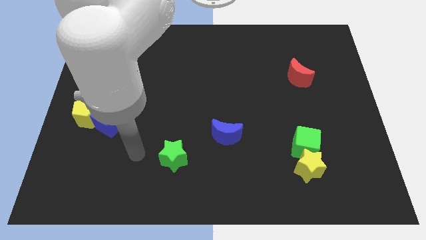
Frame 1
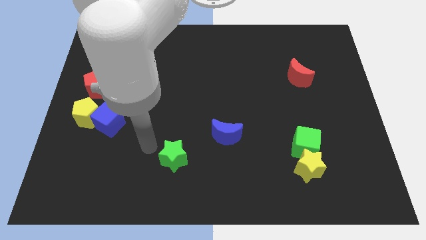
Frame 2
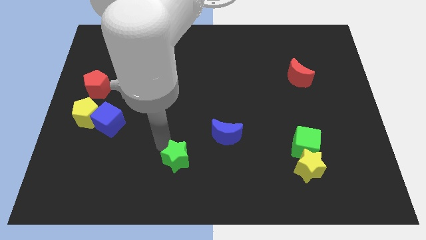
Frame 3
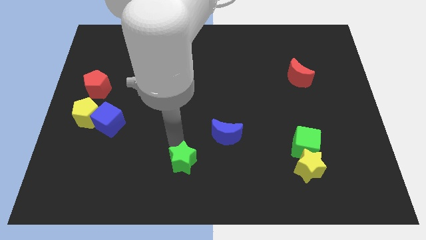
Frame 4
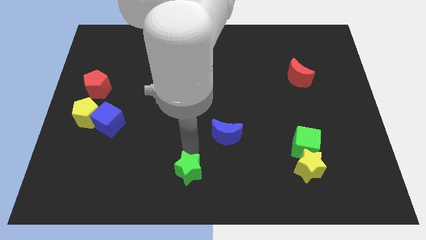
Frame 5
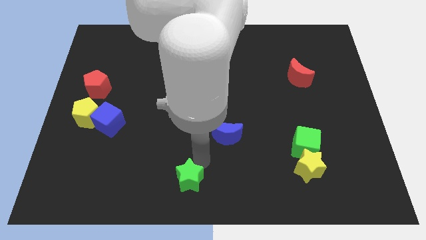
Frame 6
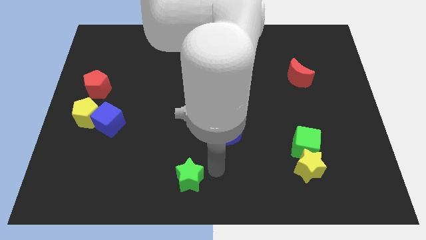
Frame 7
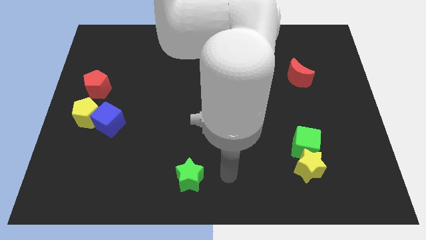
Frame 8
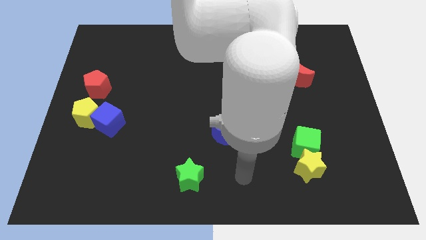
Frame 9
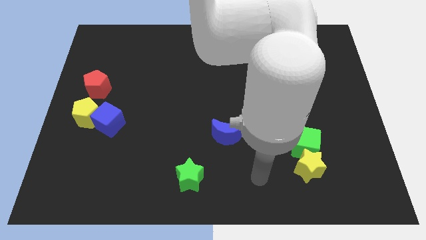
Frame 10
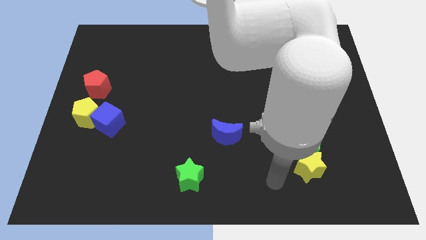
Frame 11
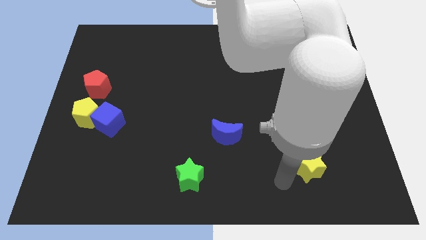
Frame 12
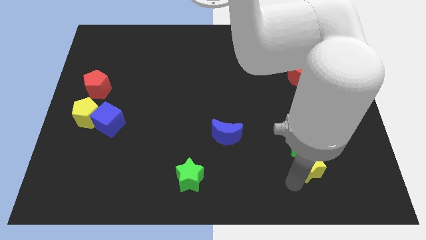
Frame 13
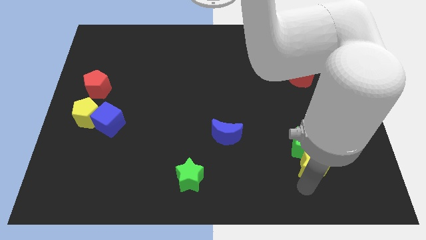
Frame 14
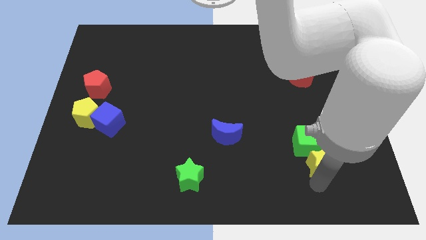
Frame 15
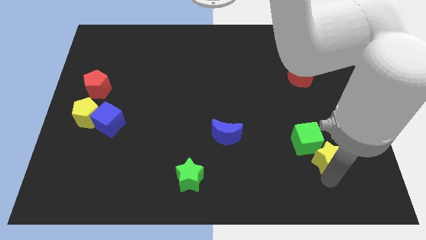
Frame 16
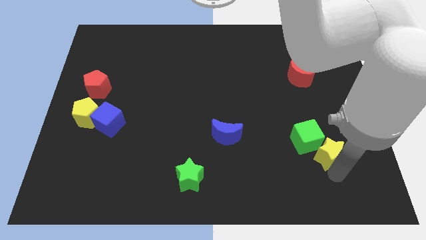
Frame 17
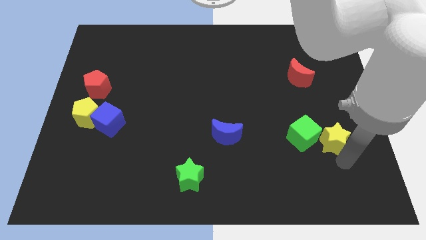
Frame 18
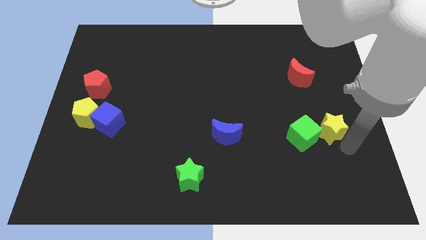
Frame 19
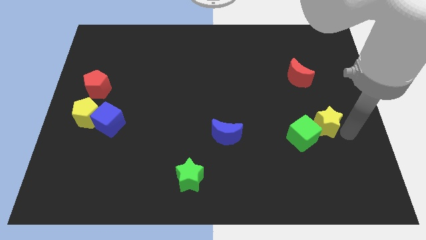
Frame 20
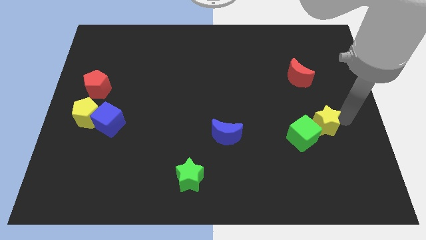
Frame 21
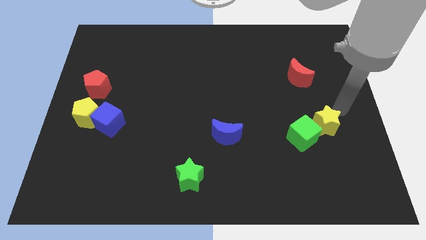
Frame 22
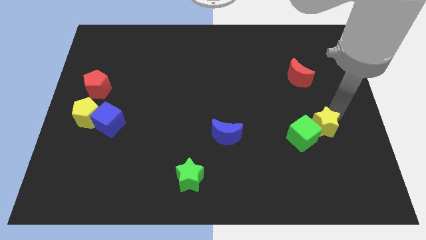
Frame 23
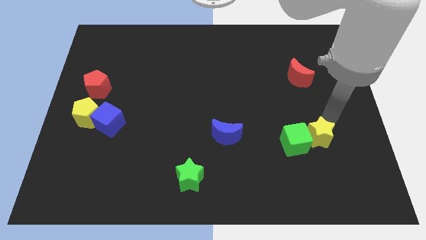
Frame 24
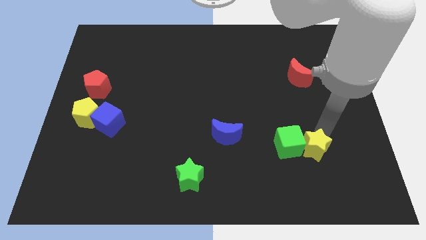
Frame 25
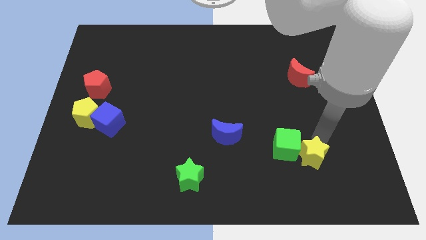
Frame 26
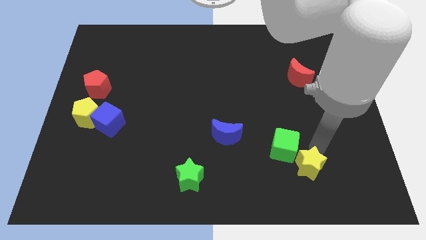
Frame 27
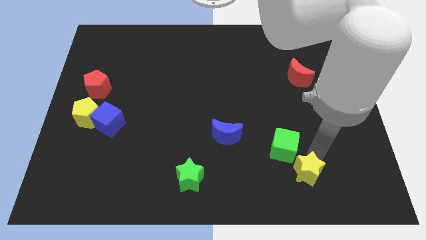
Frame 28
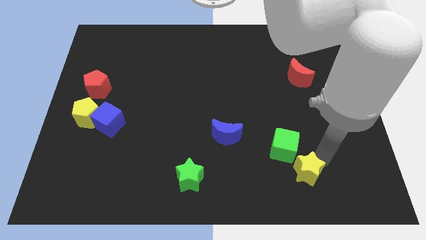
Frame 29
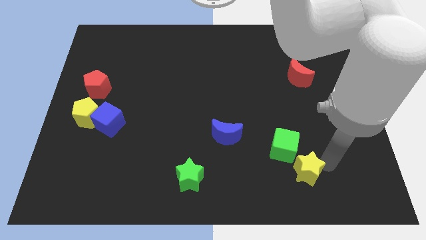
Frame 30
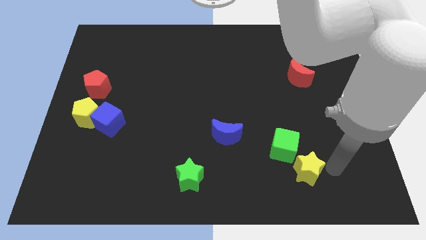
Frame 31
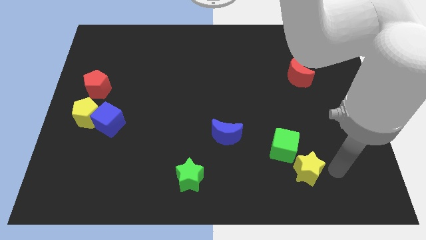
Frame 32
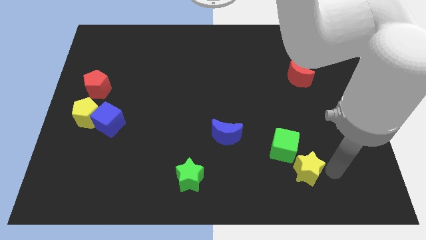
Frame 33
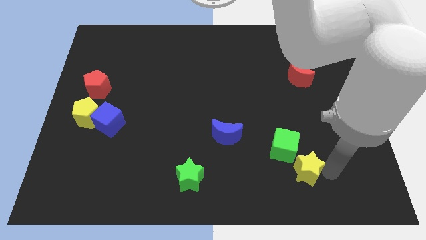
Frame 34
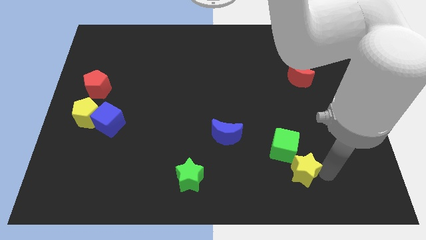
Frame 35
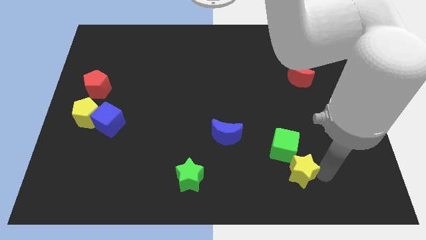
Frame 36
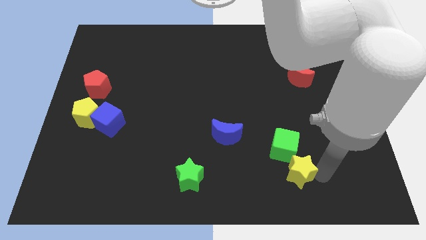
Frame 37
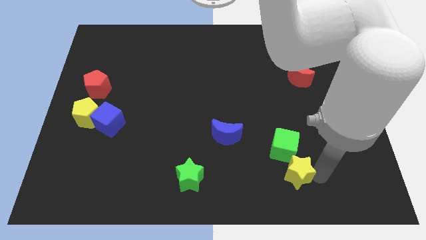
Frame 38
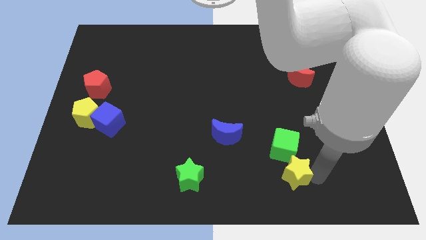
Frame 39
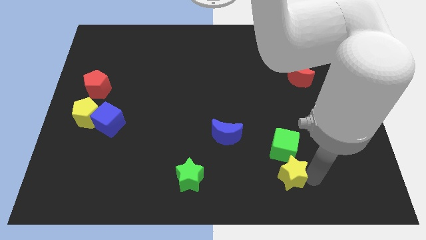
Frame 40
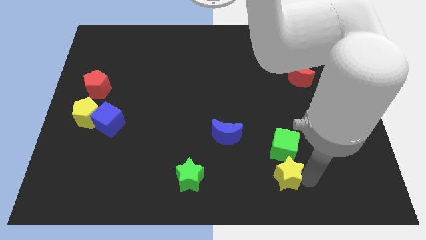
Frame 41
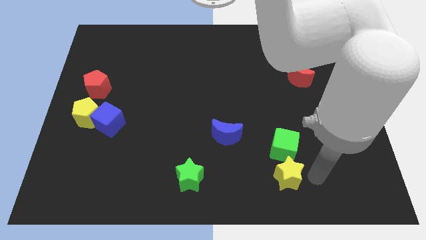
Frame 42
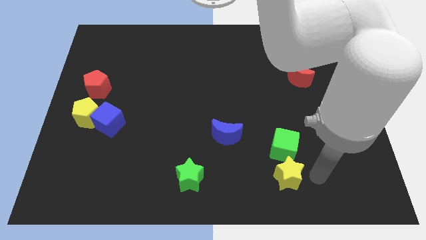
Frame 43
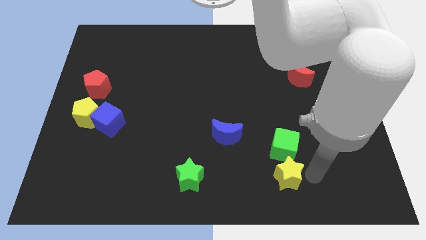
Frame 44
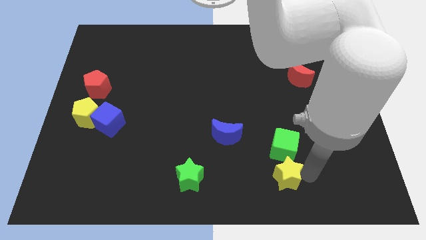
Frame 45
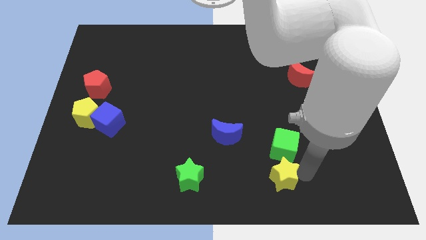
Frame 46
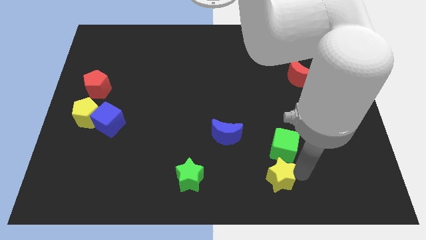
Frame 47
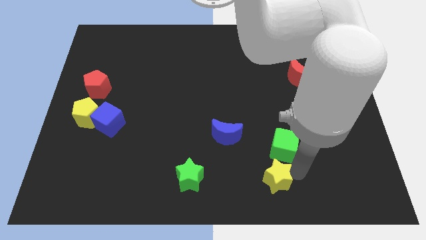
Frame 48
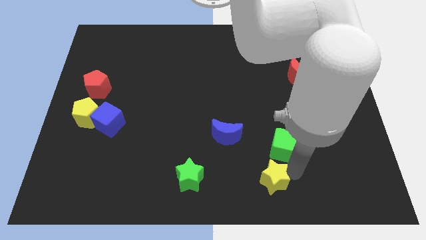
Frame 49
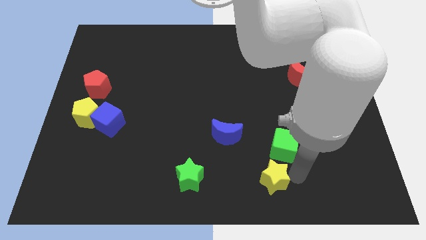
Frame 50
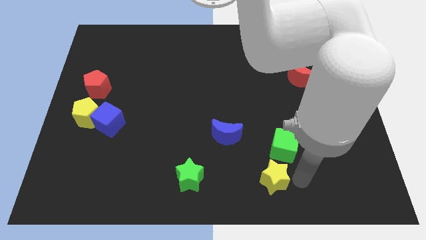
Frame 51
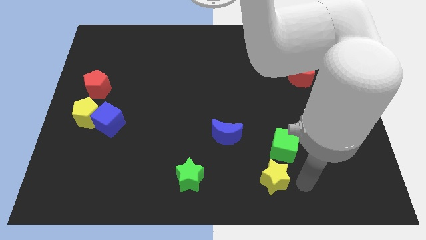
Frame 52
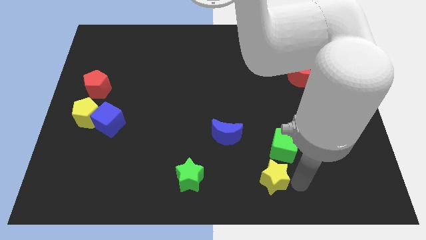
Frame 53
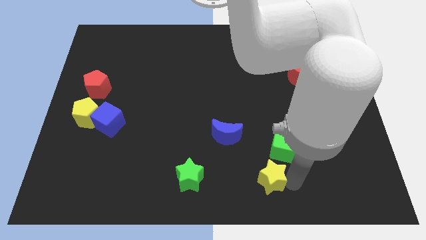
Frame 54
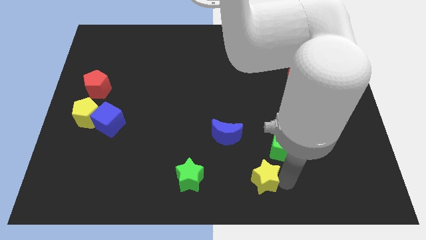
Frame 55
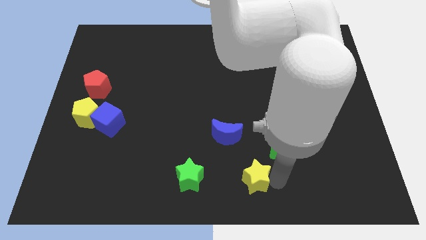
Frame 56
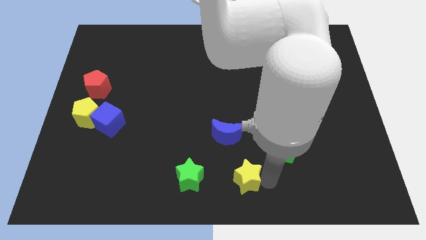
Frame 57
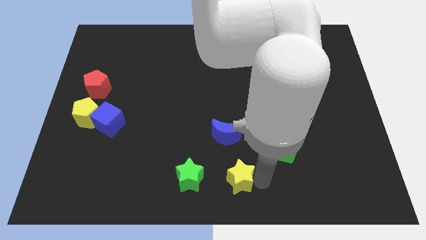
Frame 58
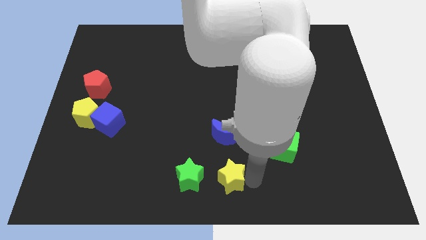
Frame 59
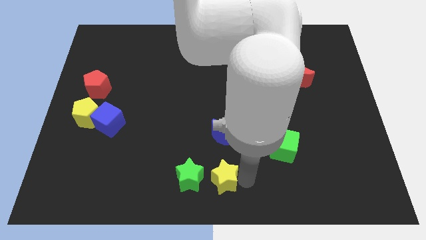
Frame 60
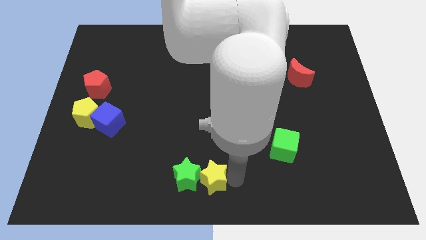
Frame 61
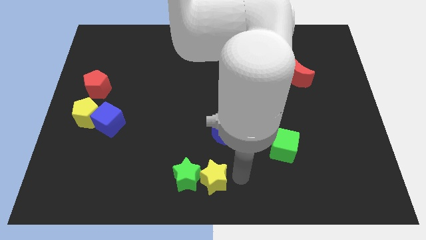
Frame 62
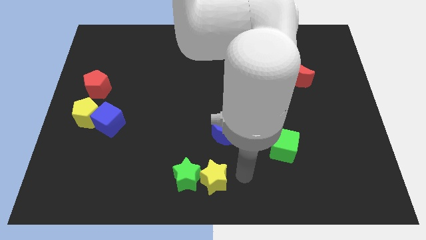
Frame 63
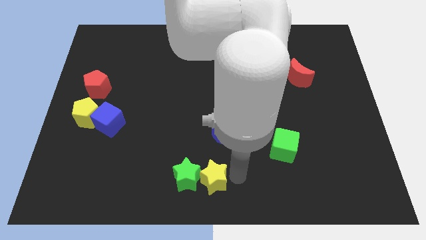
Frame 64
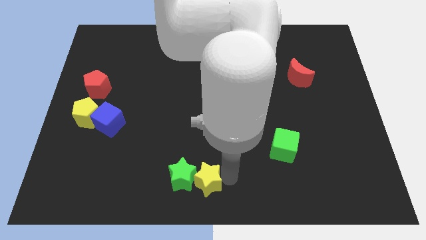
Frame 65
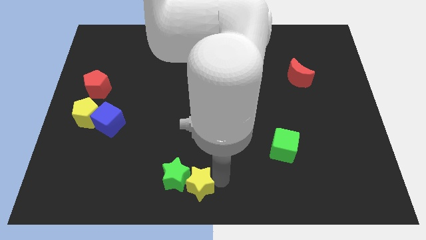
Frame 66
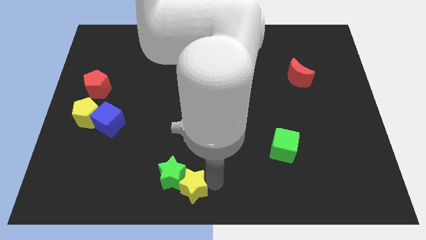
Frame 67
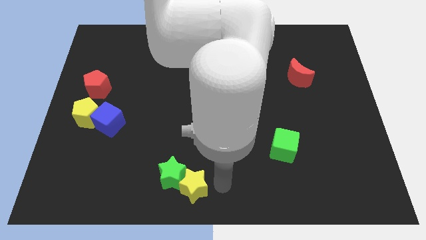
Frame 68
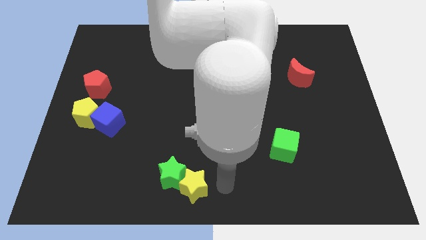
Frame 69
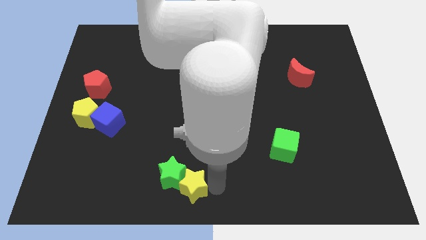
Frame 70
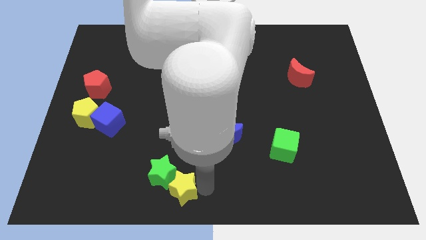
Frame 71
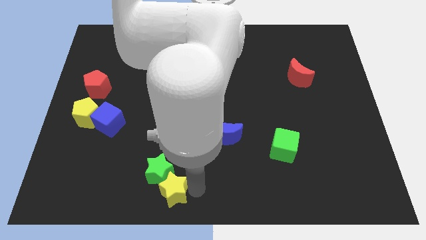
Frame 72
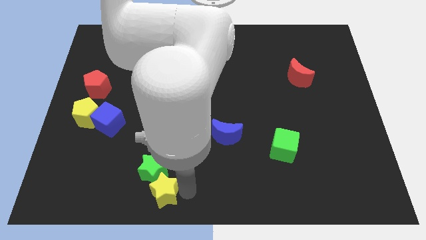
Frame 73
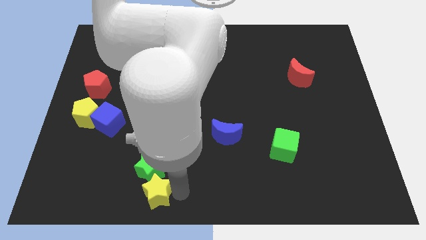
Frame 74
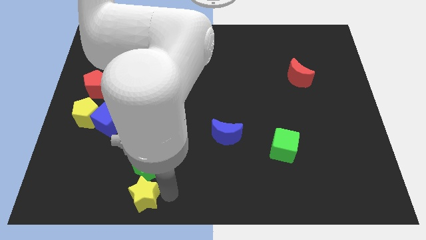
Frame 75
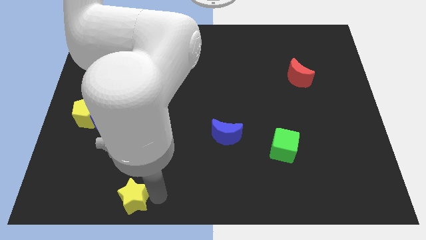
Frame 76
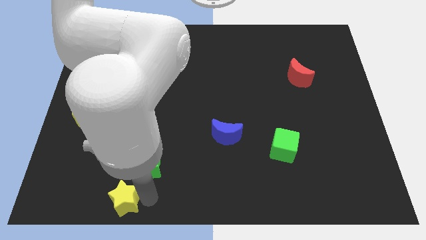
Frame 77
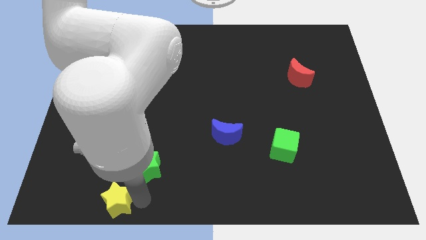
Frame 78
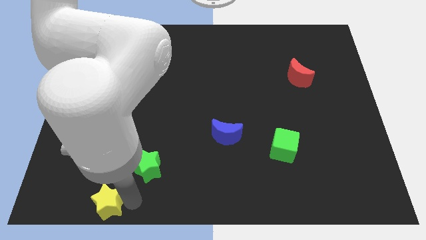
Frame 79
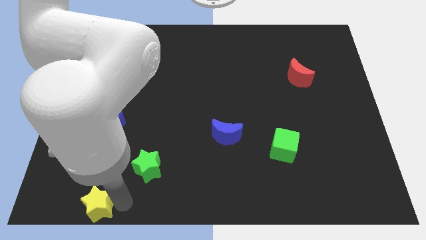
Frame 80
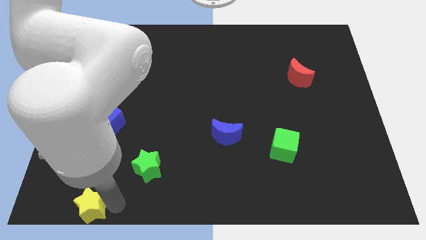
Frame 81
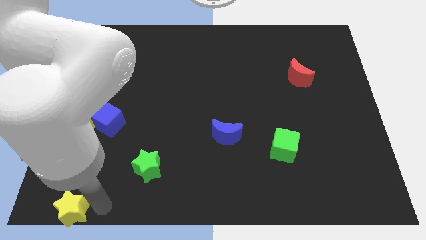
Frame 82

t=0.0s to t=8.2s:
put the yellow star to the bottom left of the board
